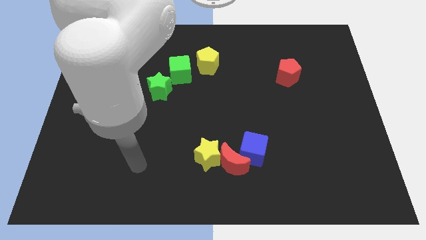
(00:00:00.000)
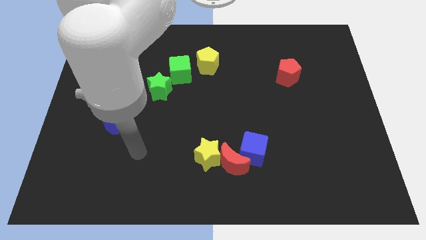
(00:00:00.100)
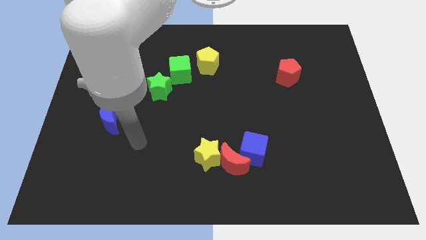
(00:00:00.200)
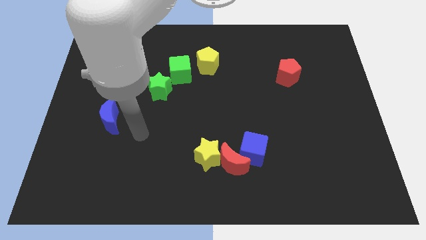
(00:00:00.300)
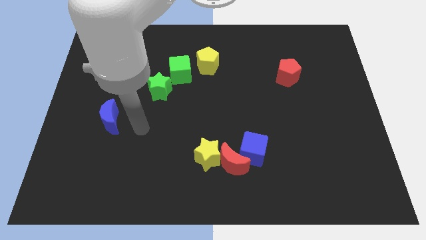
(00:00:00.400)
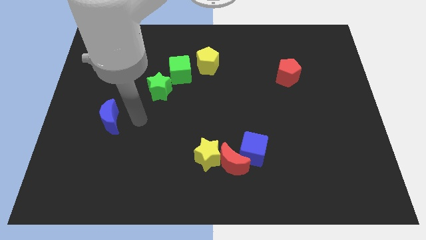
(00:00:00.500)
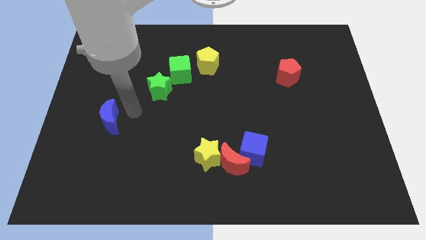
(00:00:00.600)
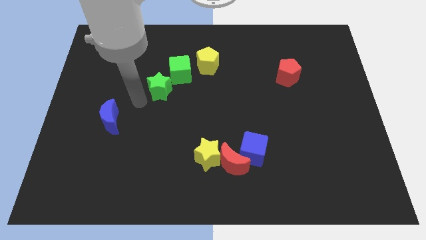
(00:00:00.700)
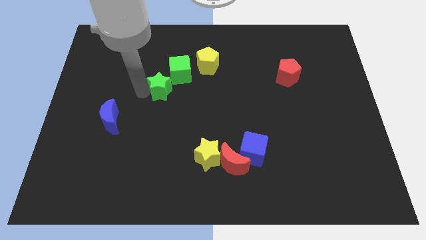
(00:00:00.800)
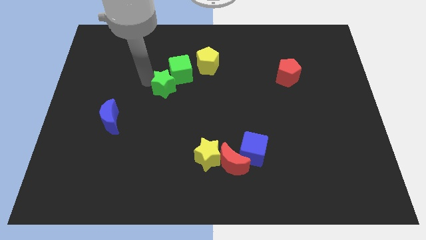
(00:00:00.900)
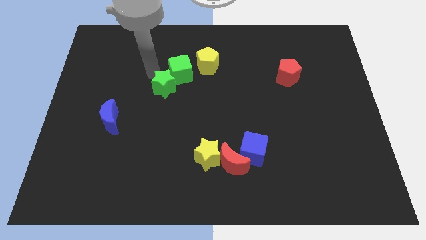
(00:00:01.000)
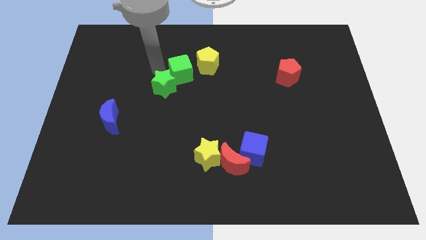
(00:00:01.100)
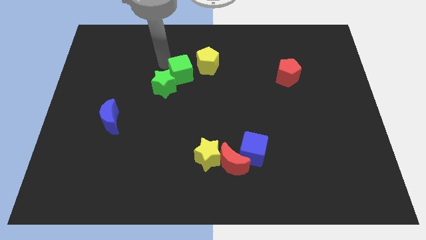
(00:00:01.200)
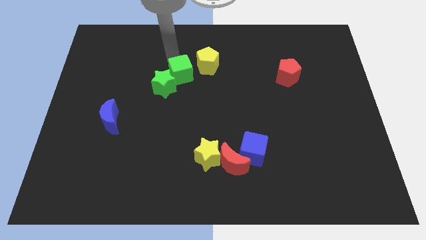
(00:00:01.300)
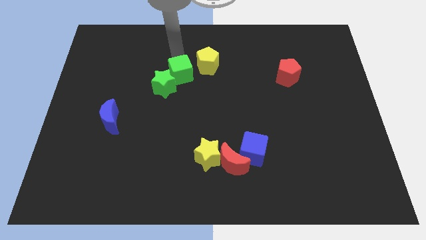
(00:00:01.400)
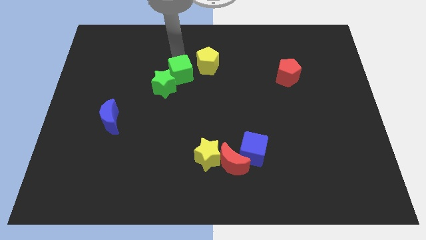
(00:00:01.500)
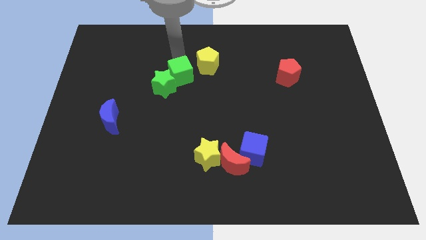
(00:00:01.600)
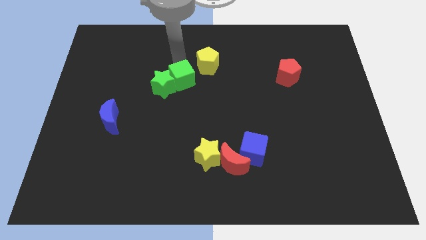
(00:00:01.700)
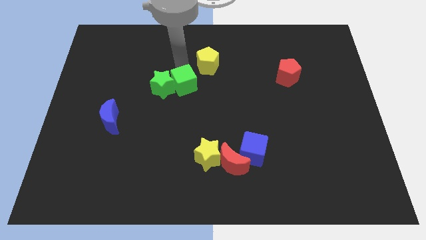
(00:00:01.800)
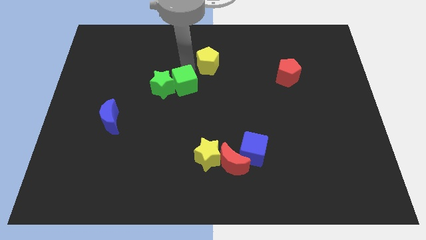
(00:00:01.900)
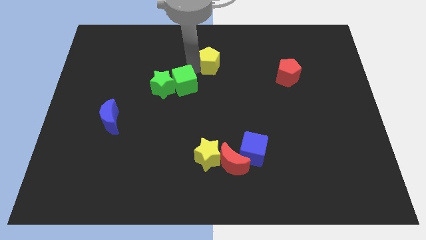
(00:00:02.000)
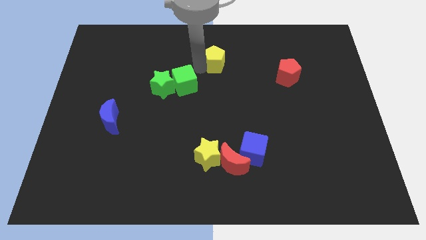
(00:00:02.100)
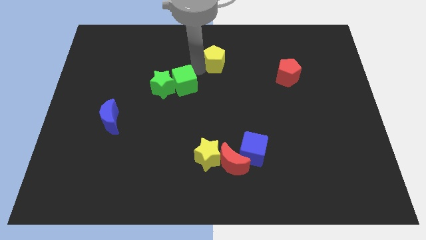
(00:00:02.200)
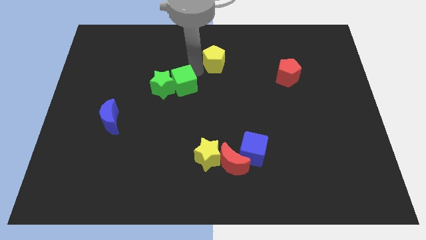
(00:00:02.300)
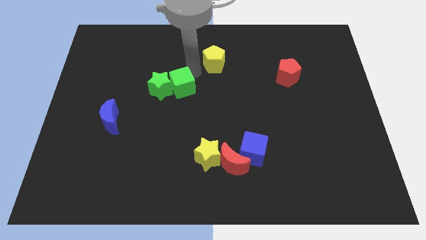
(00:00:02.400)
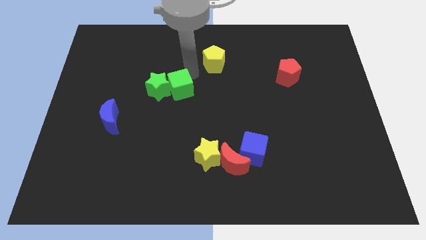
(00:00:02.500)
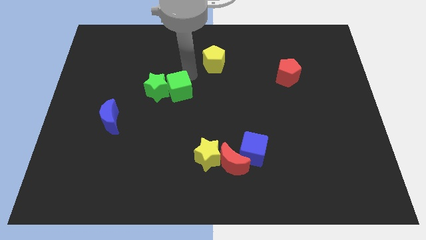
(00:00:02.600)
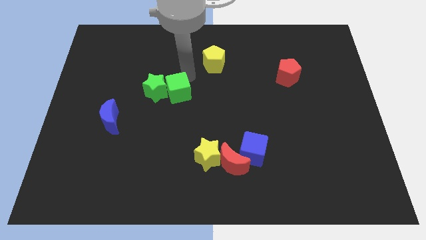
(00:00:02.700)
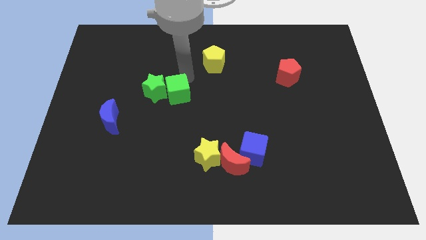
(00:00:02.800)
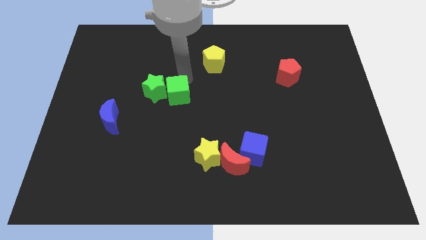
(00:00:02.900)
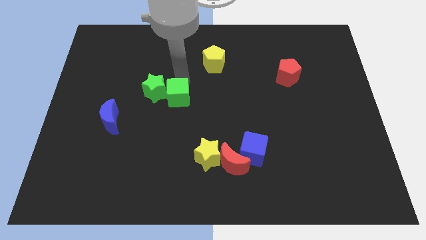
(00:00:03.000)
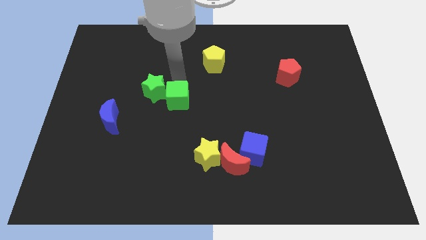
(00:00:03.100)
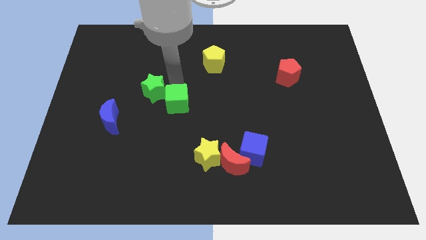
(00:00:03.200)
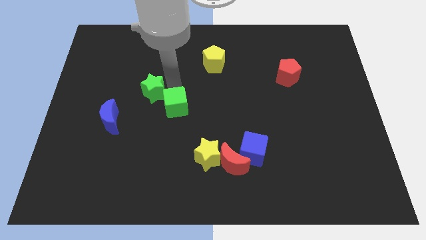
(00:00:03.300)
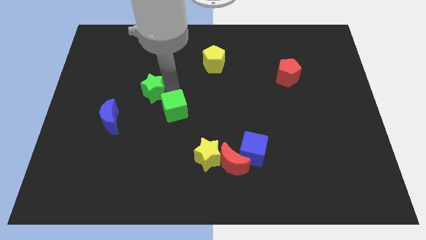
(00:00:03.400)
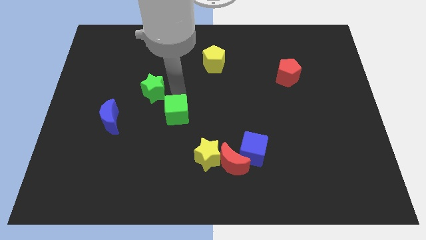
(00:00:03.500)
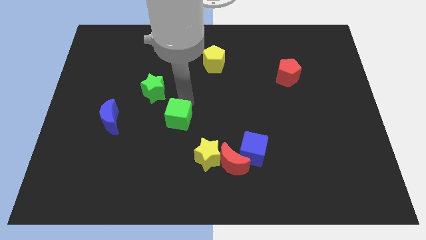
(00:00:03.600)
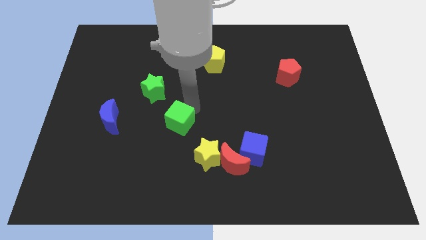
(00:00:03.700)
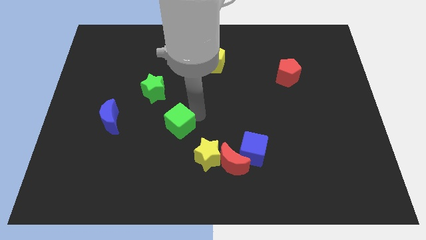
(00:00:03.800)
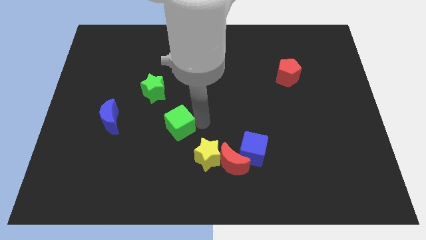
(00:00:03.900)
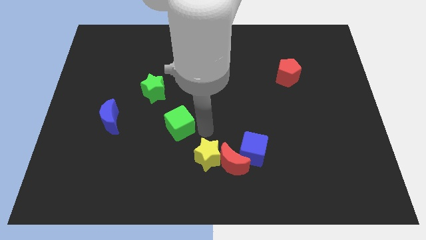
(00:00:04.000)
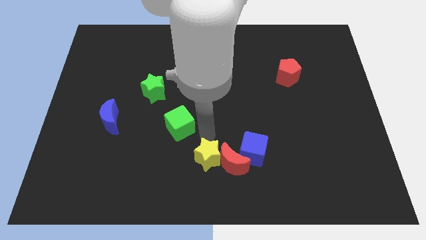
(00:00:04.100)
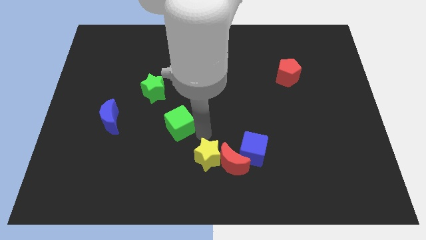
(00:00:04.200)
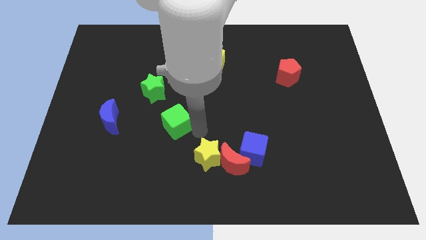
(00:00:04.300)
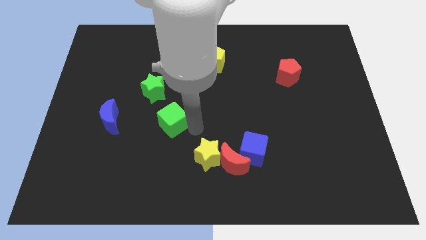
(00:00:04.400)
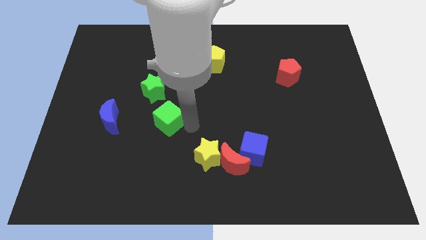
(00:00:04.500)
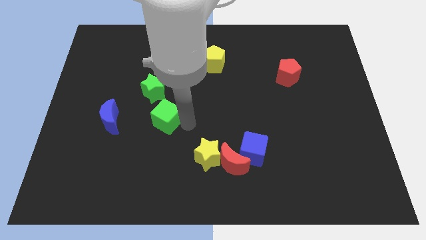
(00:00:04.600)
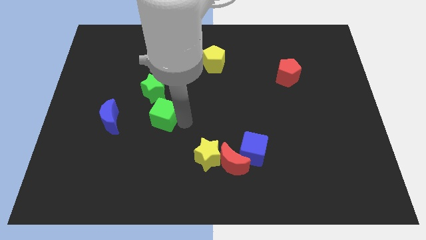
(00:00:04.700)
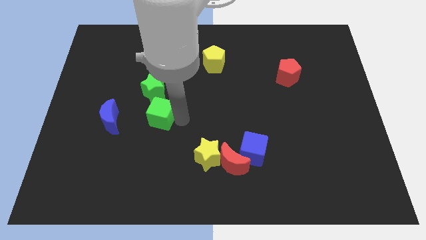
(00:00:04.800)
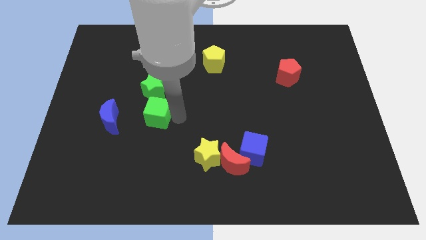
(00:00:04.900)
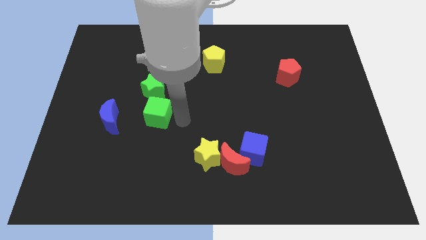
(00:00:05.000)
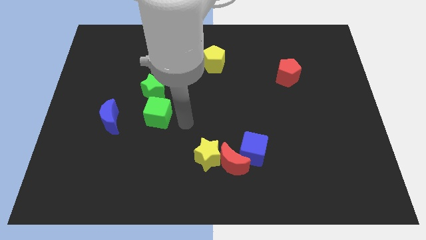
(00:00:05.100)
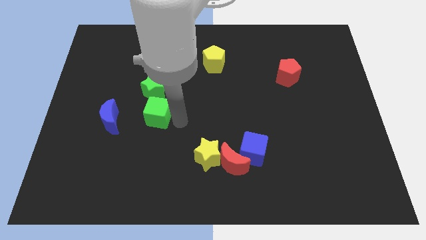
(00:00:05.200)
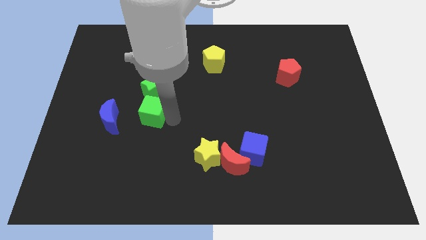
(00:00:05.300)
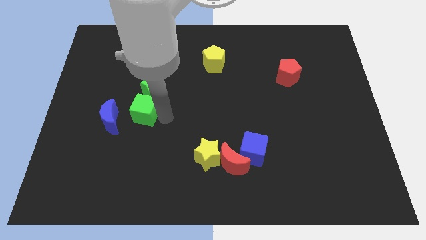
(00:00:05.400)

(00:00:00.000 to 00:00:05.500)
move the green cube diagonally down and to the left of the green star
